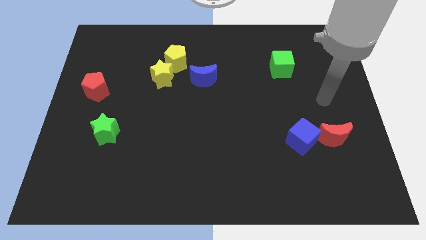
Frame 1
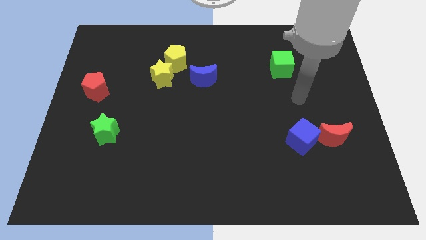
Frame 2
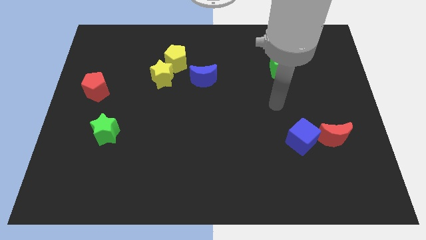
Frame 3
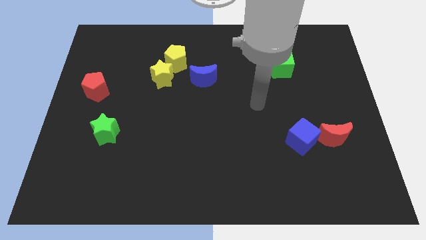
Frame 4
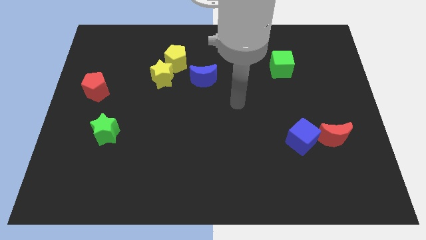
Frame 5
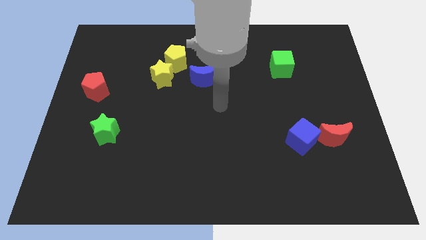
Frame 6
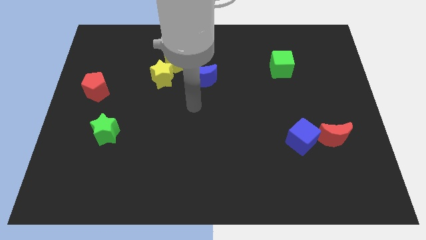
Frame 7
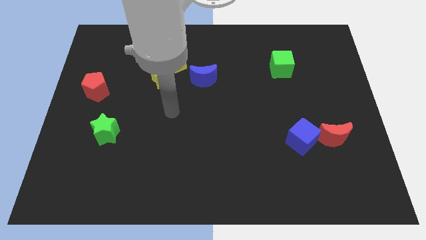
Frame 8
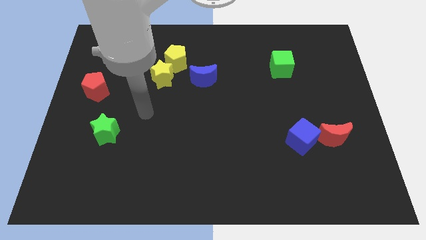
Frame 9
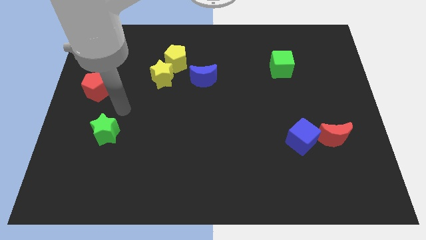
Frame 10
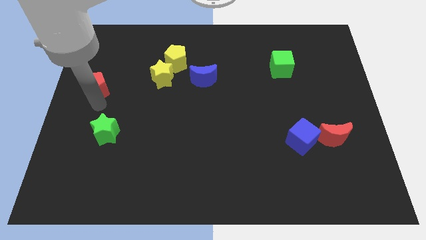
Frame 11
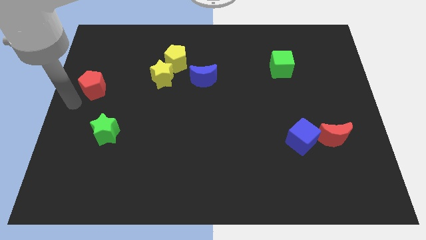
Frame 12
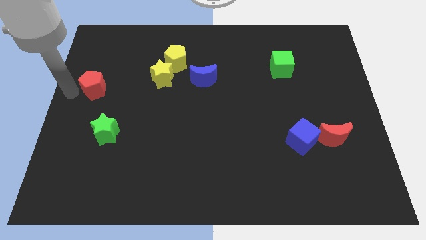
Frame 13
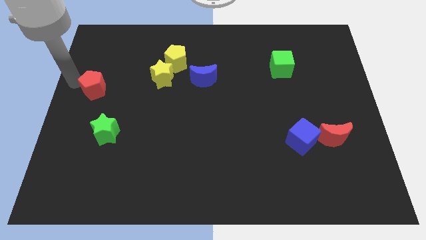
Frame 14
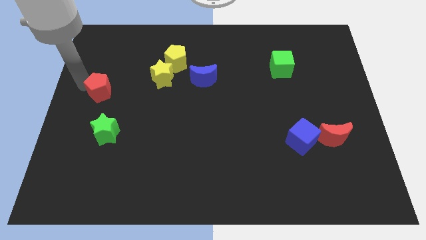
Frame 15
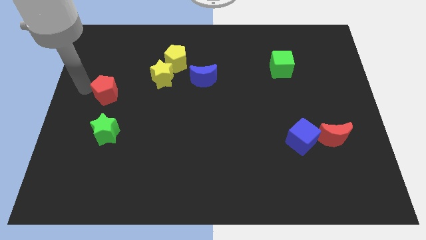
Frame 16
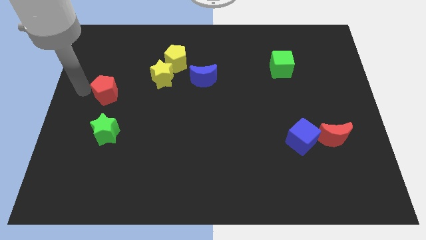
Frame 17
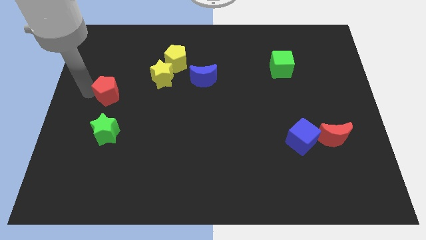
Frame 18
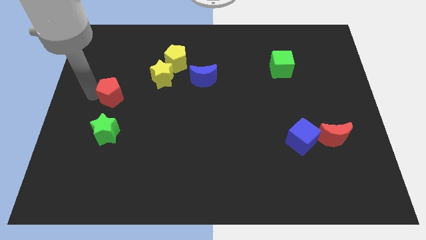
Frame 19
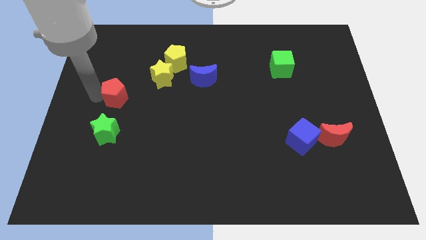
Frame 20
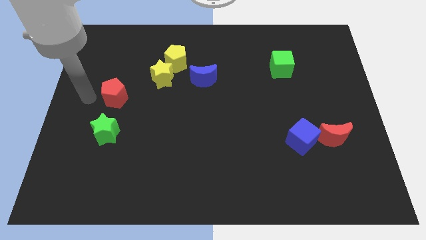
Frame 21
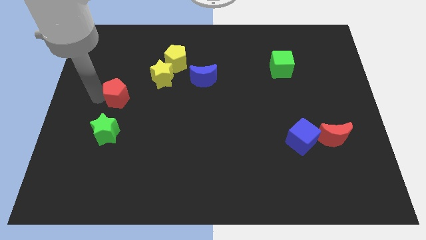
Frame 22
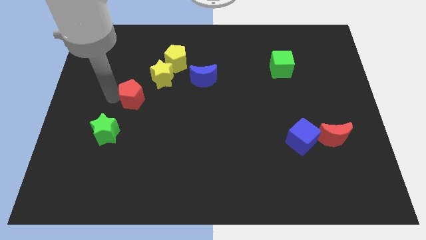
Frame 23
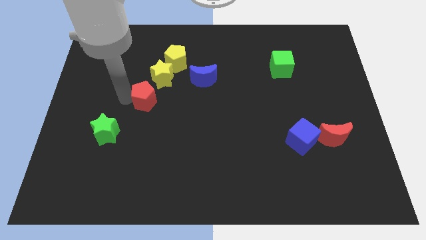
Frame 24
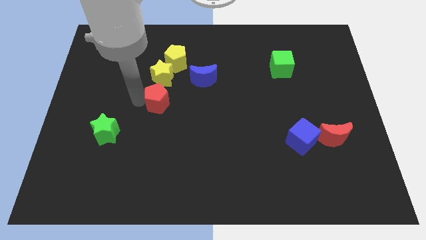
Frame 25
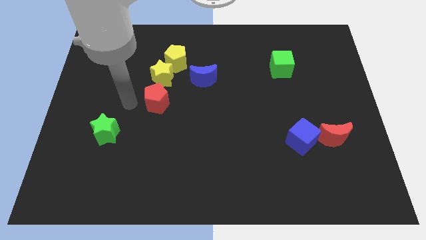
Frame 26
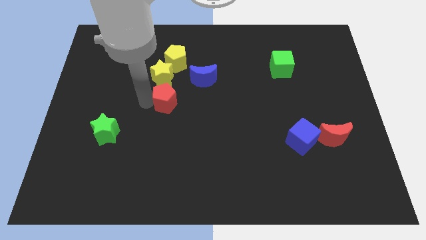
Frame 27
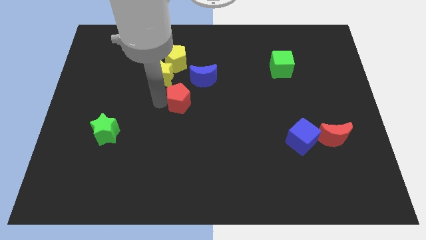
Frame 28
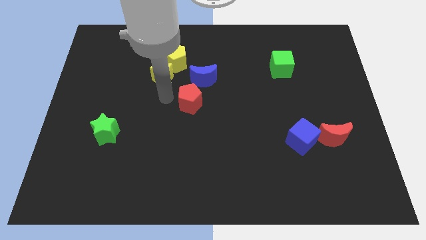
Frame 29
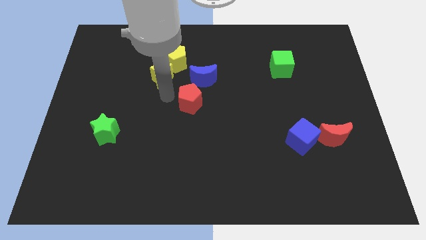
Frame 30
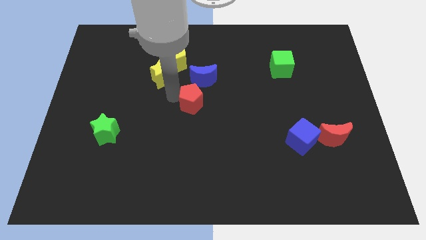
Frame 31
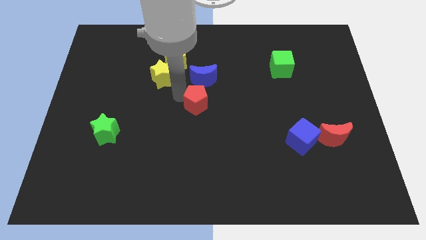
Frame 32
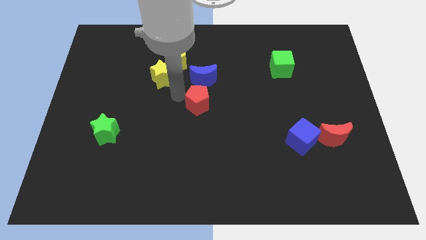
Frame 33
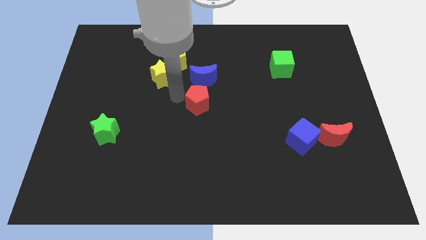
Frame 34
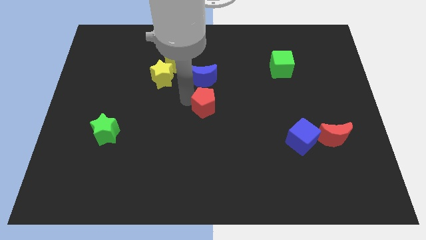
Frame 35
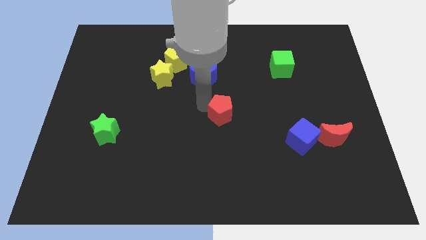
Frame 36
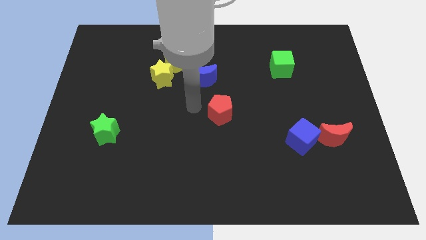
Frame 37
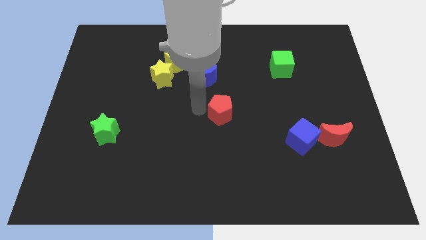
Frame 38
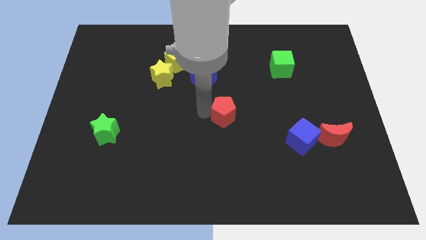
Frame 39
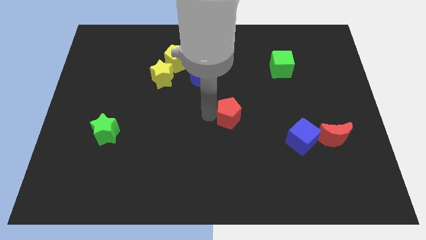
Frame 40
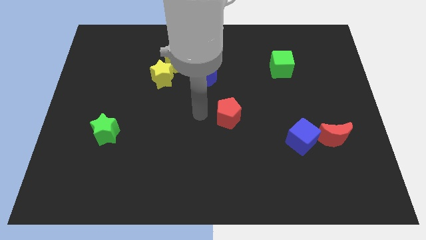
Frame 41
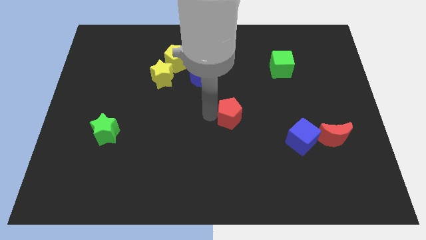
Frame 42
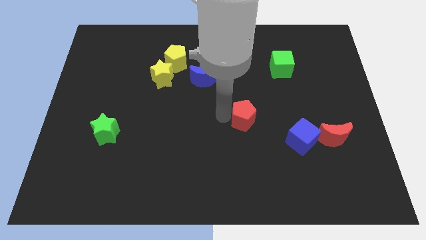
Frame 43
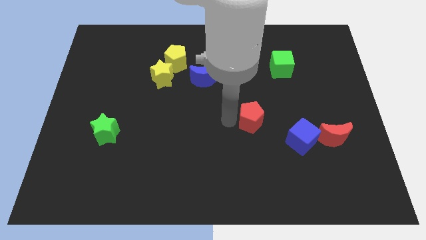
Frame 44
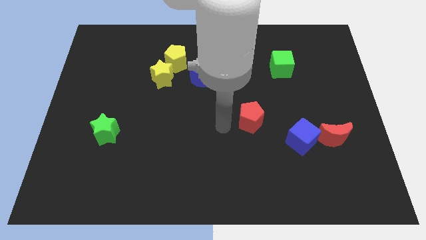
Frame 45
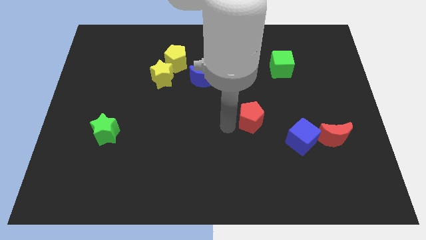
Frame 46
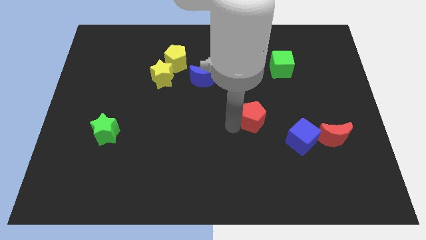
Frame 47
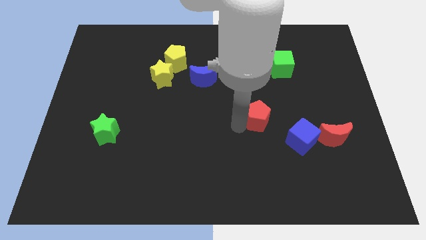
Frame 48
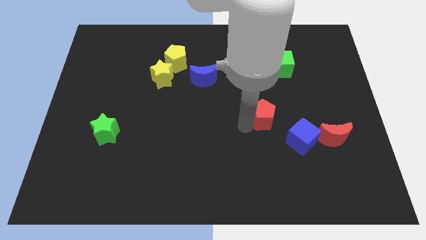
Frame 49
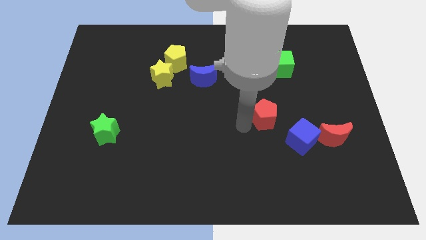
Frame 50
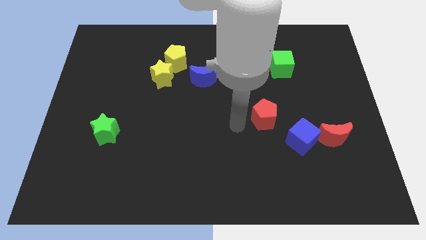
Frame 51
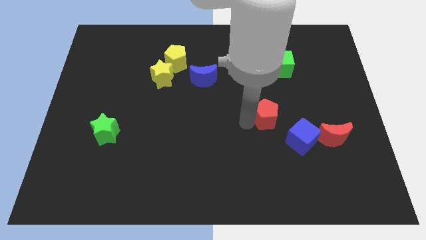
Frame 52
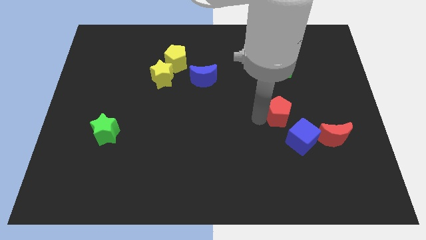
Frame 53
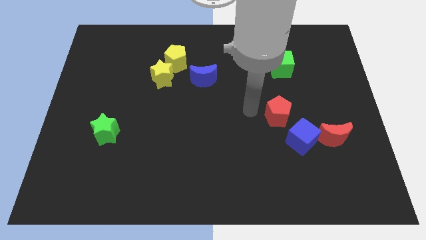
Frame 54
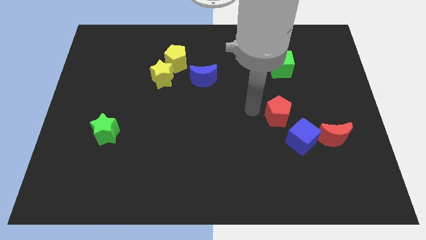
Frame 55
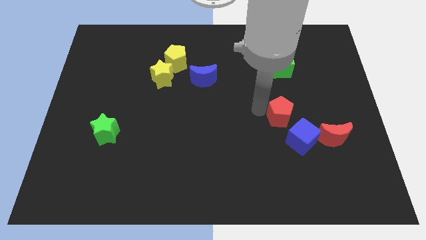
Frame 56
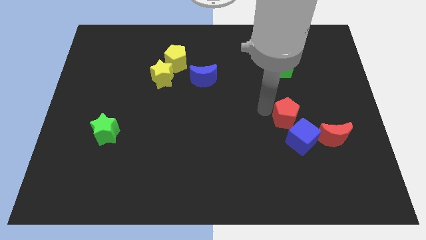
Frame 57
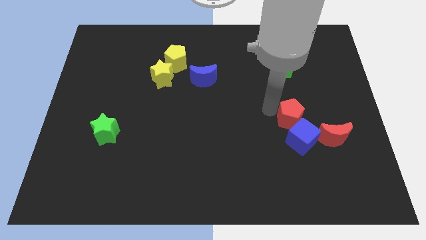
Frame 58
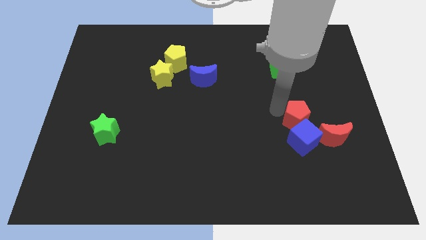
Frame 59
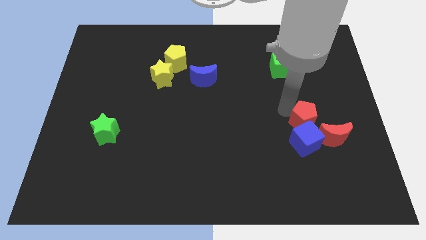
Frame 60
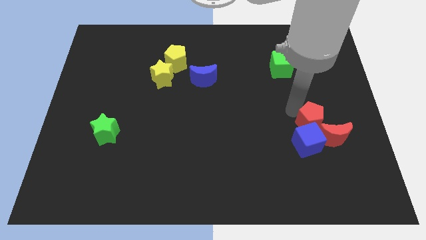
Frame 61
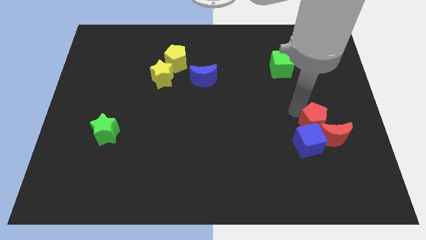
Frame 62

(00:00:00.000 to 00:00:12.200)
put the red pentagon towards the red moon

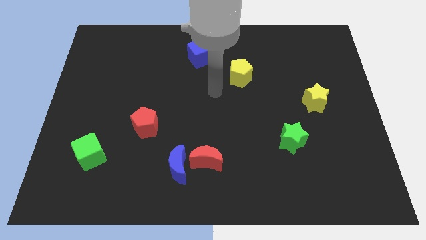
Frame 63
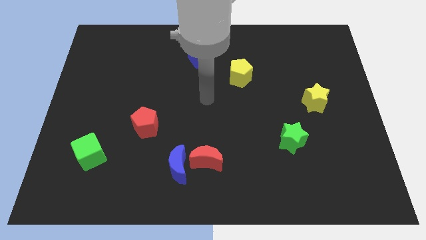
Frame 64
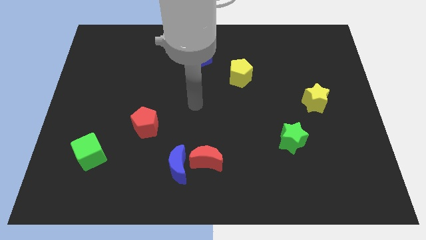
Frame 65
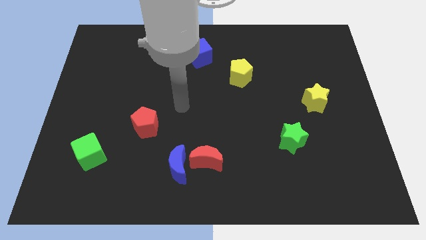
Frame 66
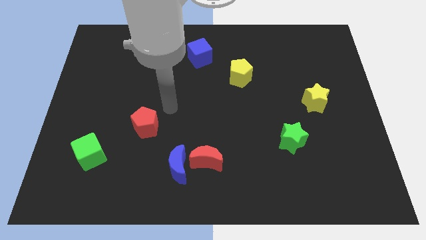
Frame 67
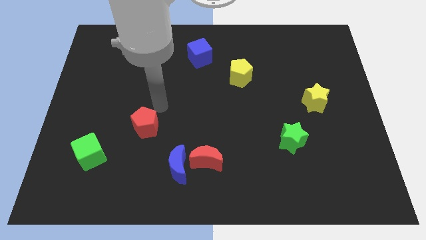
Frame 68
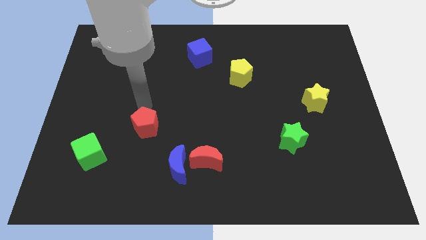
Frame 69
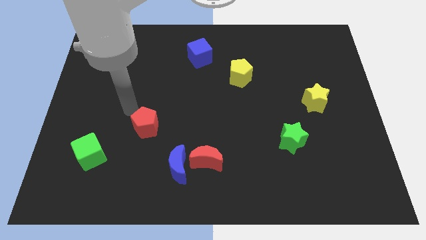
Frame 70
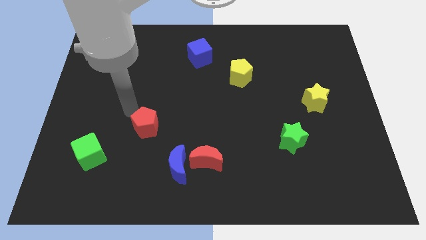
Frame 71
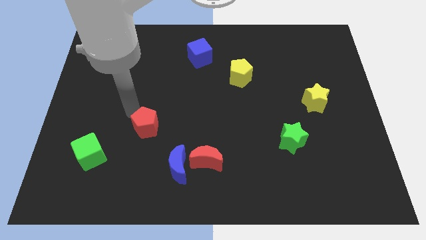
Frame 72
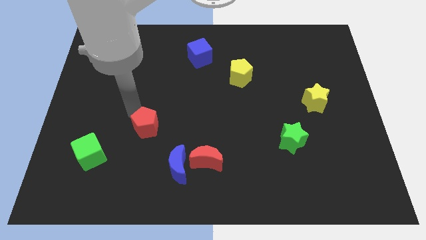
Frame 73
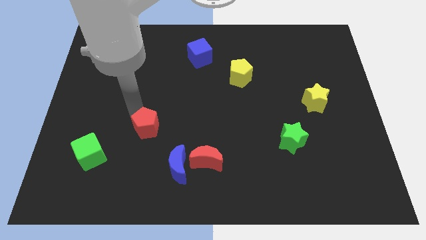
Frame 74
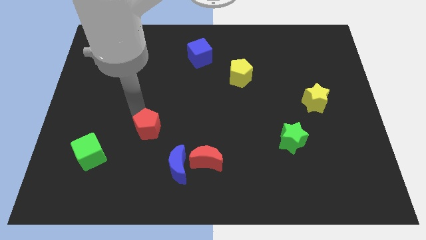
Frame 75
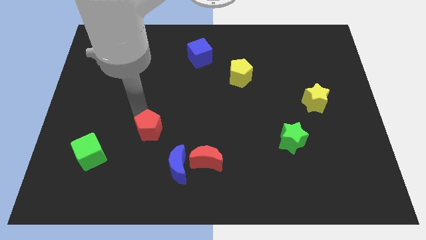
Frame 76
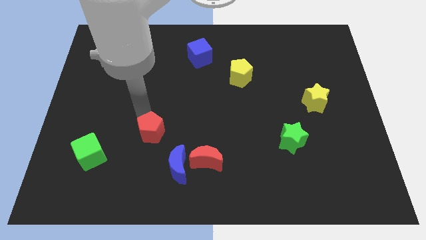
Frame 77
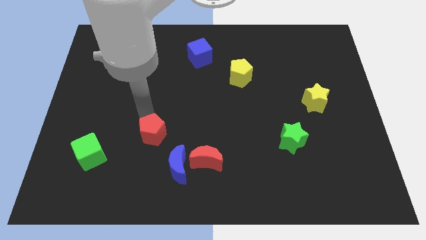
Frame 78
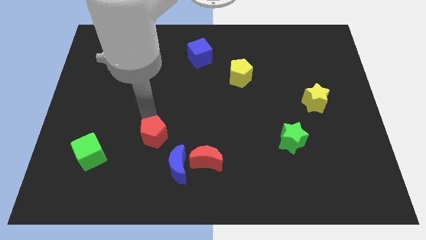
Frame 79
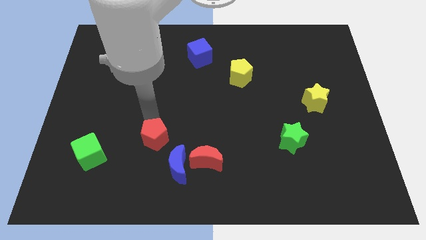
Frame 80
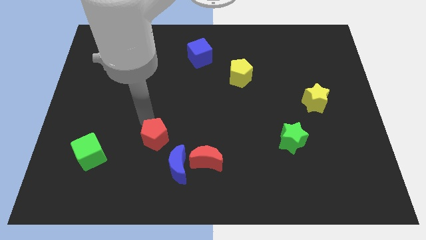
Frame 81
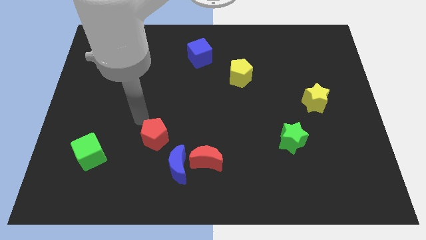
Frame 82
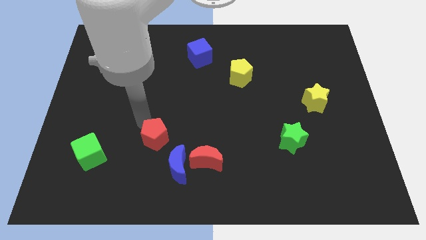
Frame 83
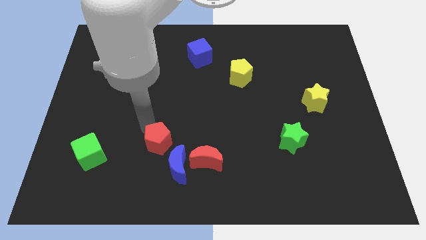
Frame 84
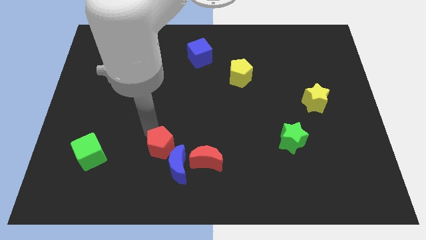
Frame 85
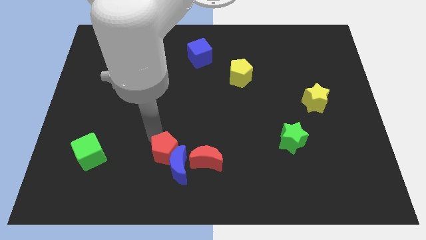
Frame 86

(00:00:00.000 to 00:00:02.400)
push the red pentagon to the blue moon
